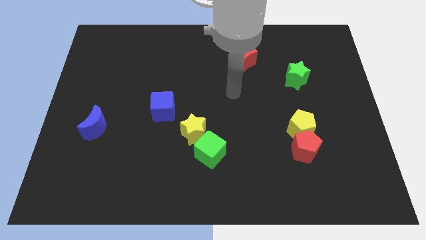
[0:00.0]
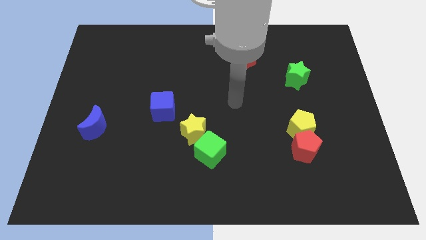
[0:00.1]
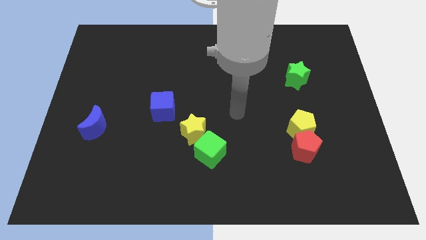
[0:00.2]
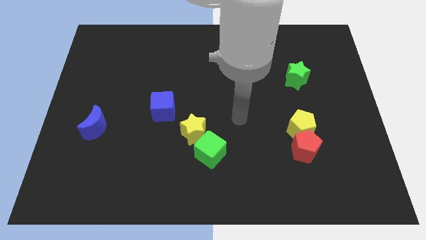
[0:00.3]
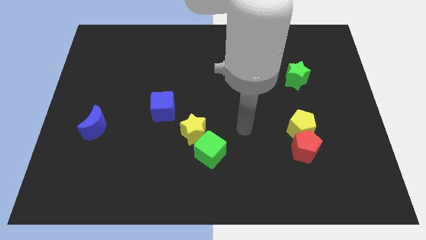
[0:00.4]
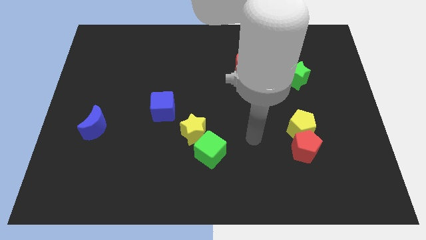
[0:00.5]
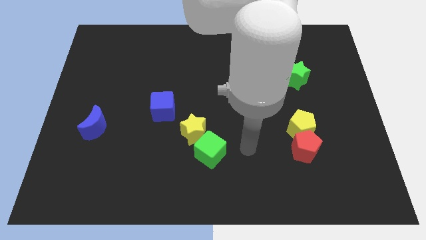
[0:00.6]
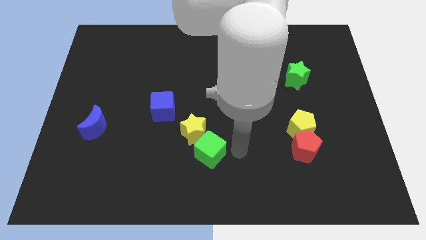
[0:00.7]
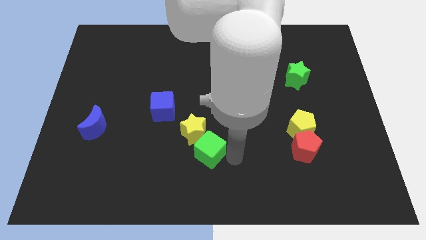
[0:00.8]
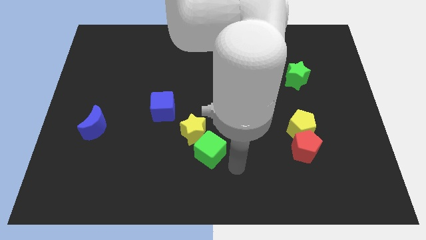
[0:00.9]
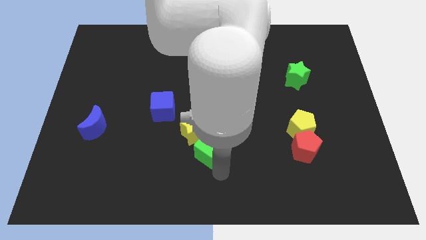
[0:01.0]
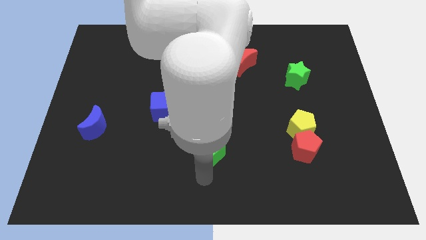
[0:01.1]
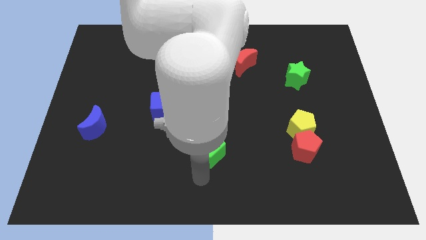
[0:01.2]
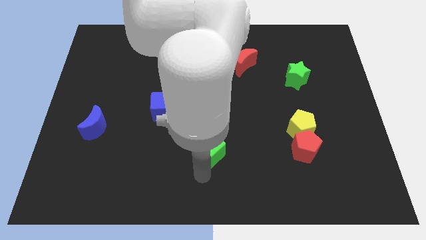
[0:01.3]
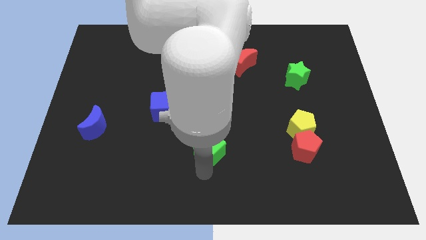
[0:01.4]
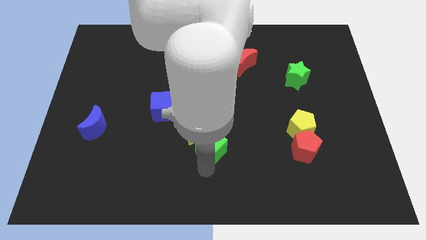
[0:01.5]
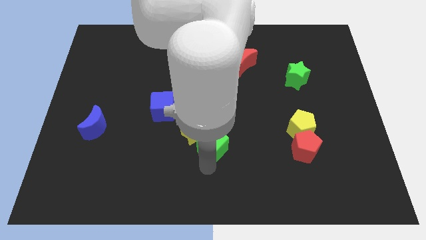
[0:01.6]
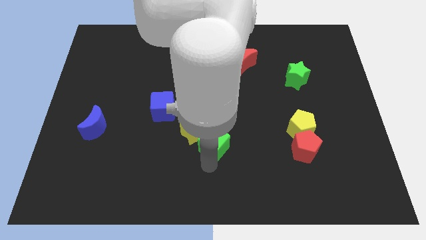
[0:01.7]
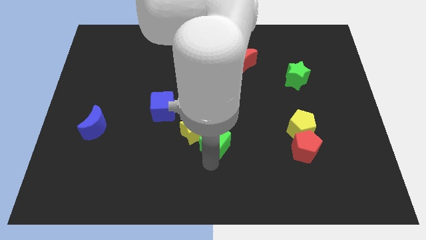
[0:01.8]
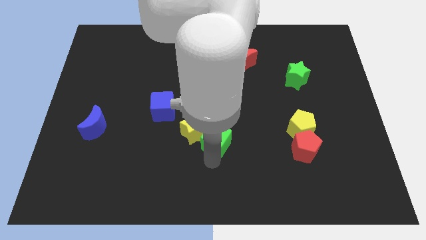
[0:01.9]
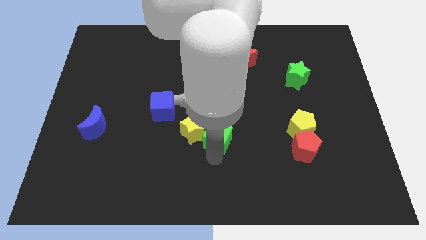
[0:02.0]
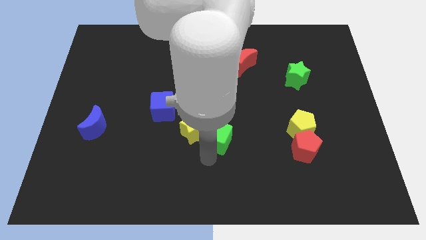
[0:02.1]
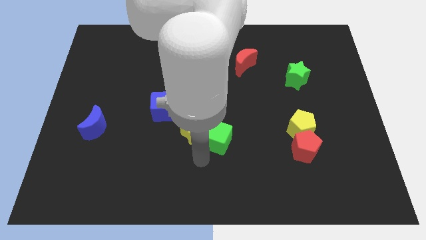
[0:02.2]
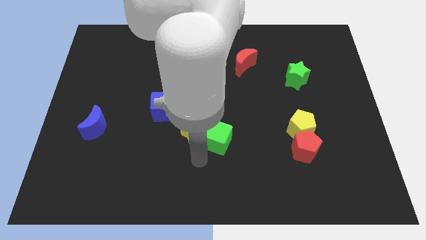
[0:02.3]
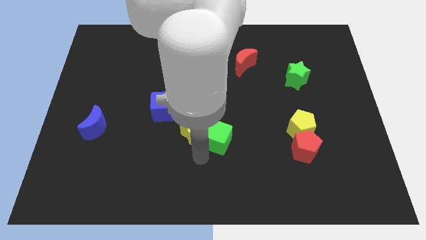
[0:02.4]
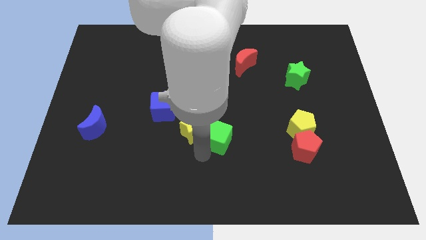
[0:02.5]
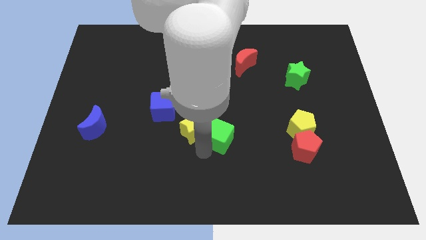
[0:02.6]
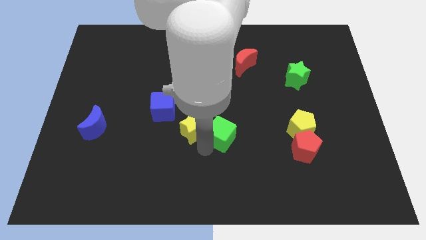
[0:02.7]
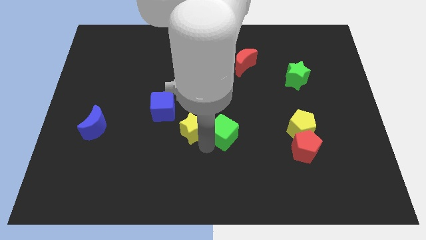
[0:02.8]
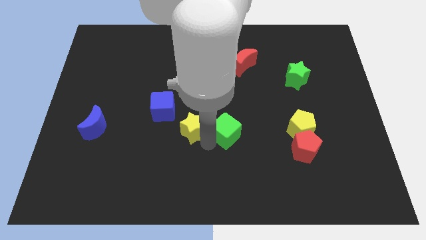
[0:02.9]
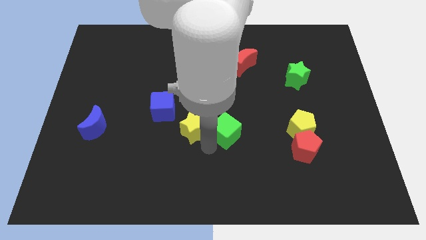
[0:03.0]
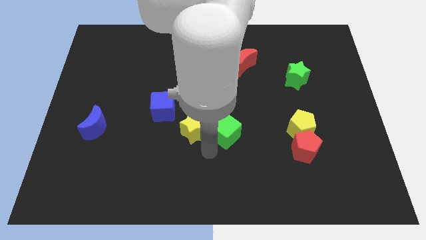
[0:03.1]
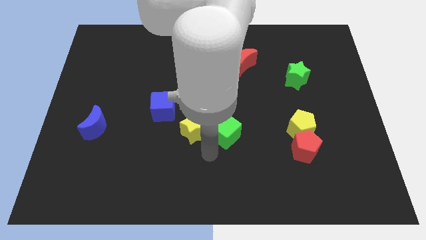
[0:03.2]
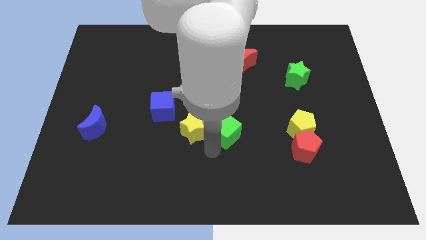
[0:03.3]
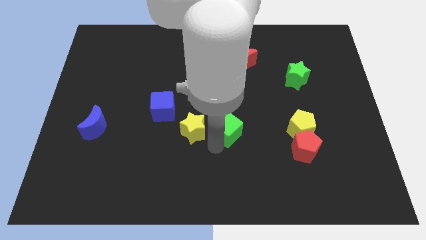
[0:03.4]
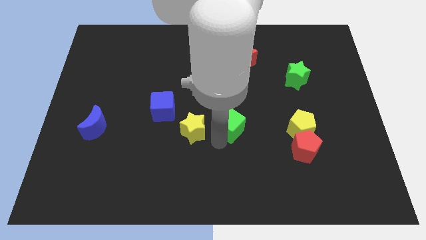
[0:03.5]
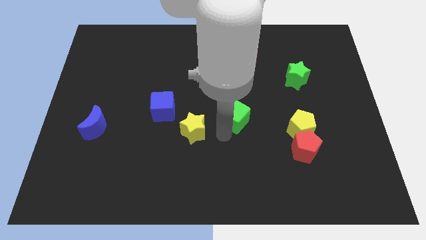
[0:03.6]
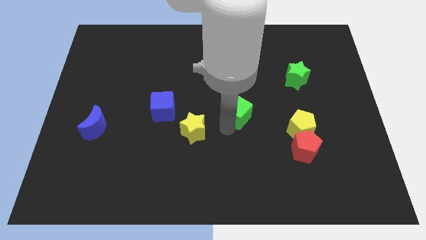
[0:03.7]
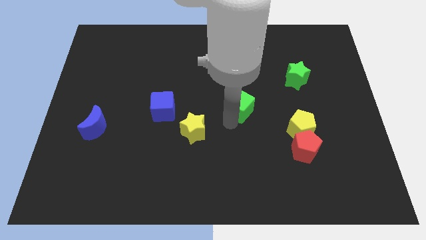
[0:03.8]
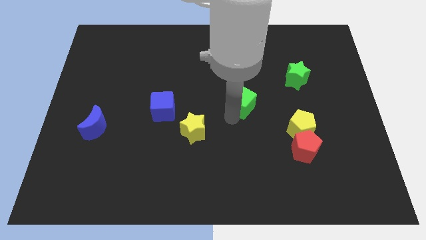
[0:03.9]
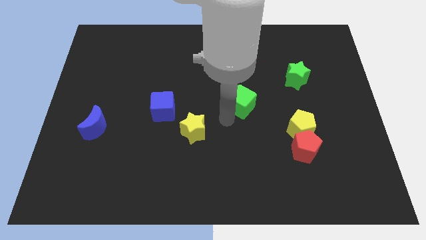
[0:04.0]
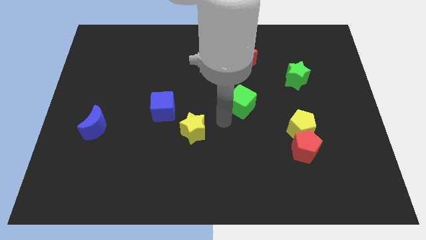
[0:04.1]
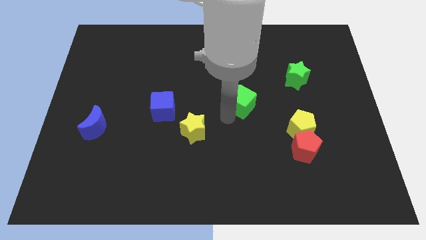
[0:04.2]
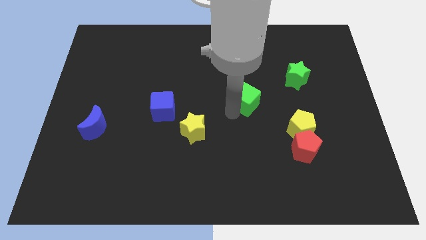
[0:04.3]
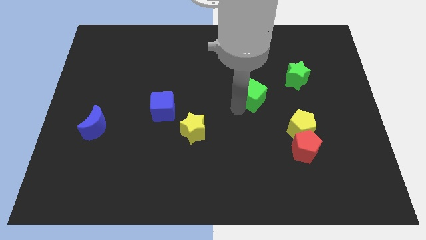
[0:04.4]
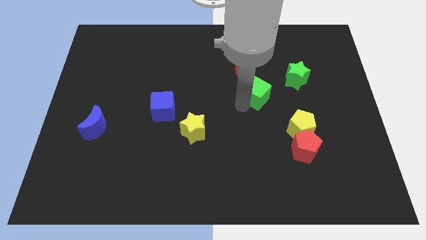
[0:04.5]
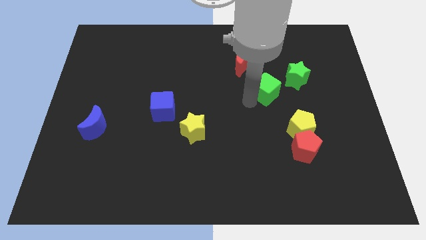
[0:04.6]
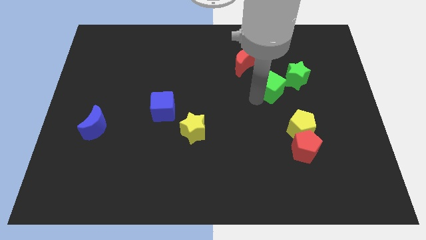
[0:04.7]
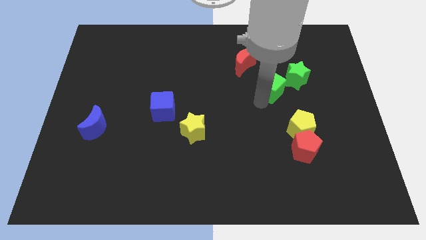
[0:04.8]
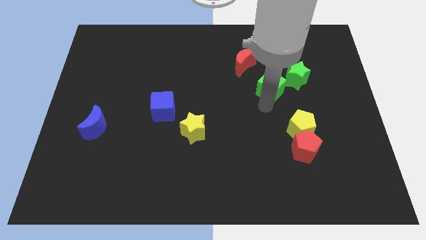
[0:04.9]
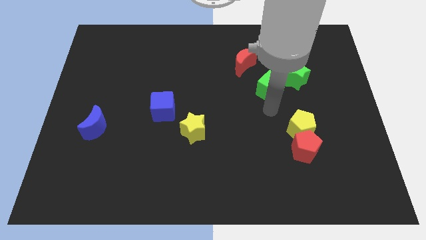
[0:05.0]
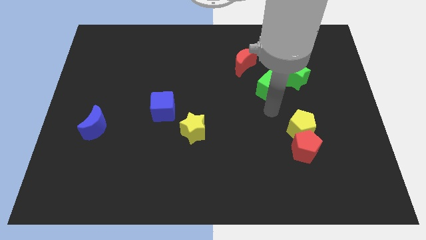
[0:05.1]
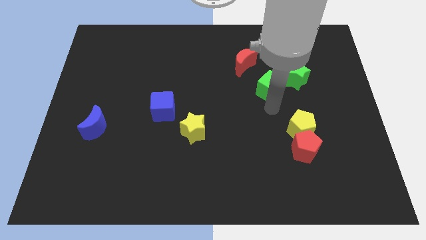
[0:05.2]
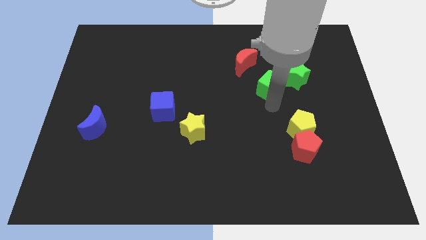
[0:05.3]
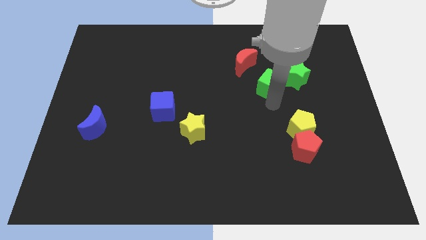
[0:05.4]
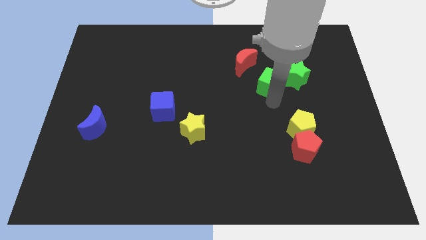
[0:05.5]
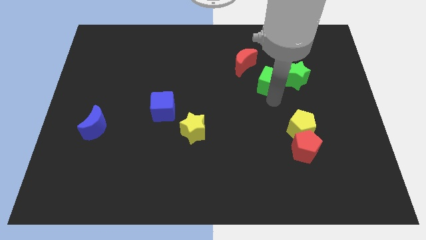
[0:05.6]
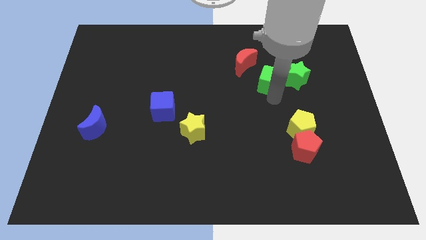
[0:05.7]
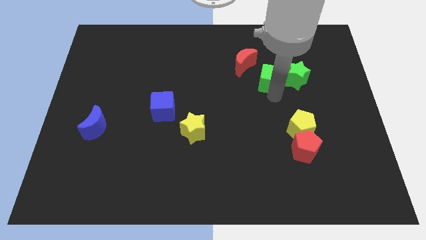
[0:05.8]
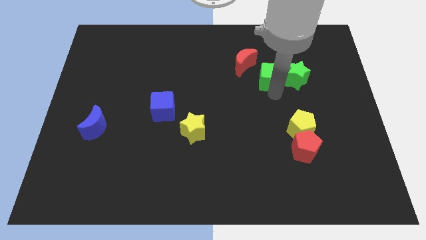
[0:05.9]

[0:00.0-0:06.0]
move the green cube to the top left of the green star

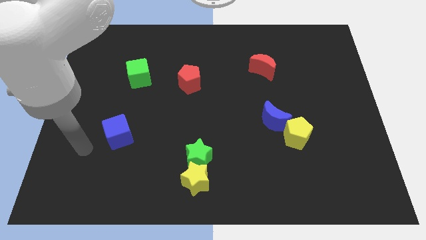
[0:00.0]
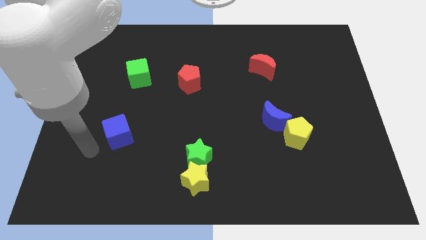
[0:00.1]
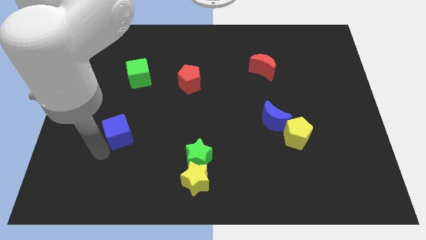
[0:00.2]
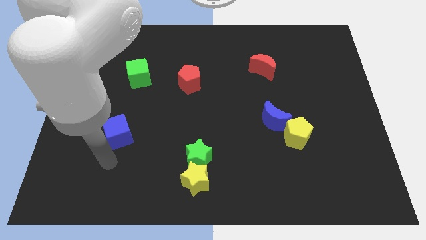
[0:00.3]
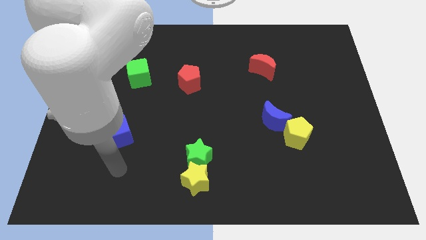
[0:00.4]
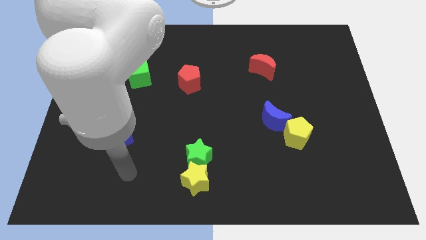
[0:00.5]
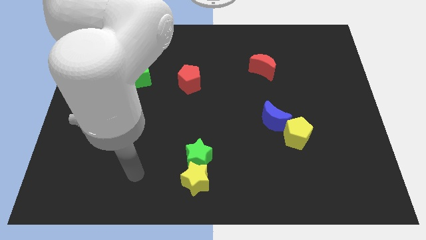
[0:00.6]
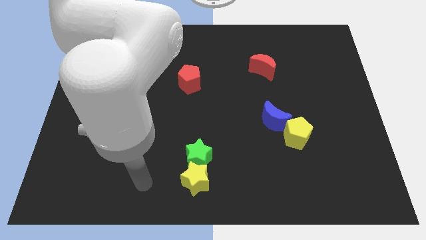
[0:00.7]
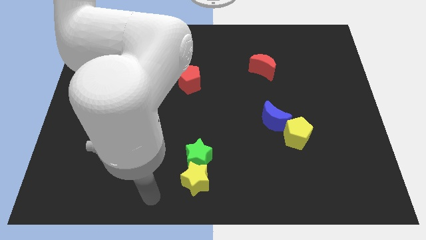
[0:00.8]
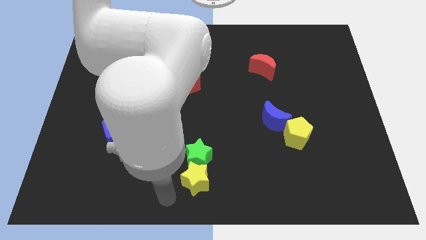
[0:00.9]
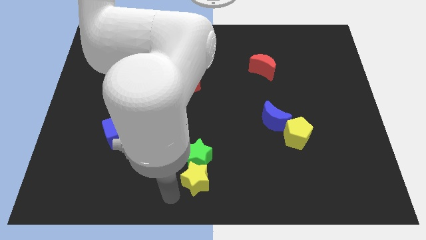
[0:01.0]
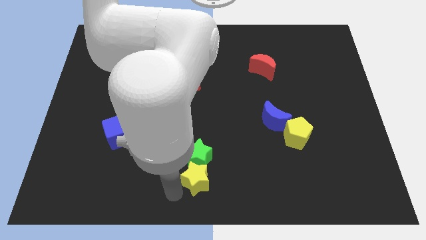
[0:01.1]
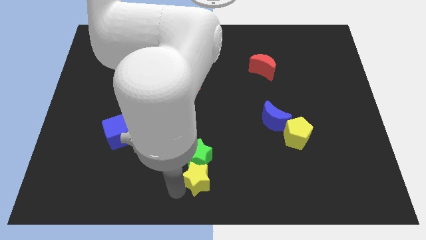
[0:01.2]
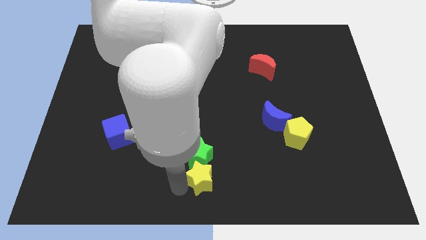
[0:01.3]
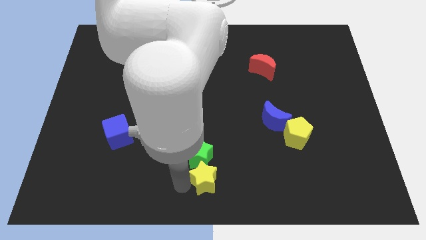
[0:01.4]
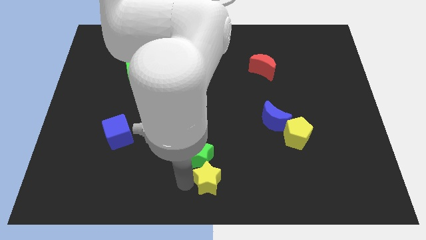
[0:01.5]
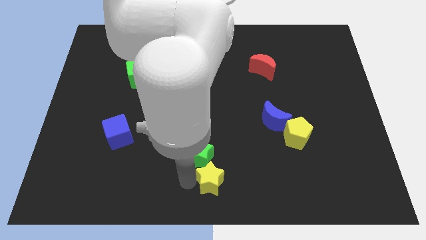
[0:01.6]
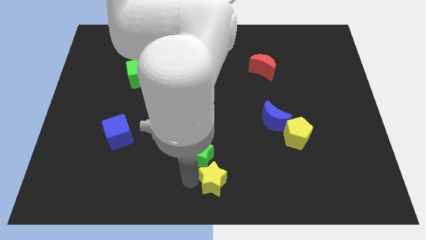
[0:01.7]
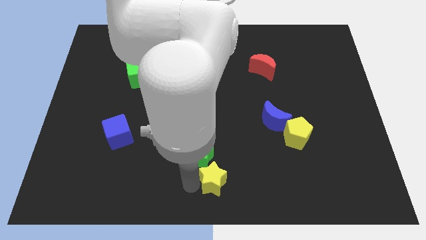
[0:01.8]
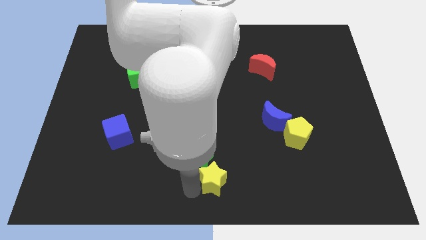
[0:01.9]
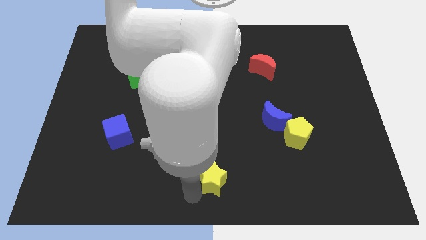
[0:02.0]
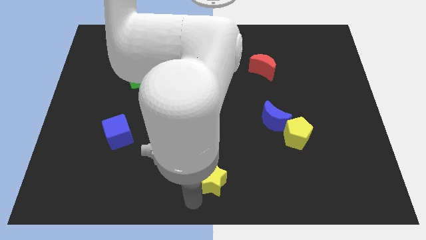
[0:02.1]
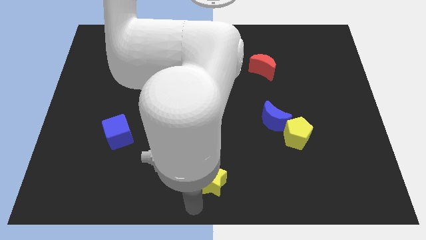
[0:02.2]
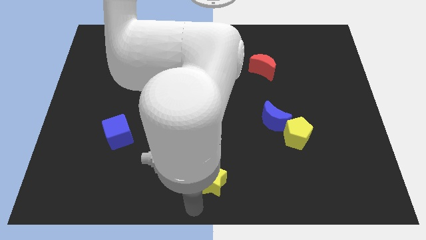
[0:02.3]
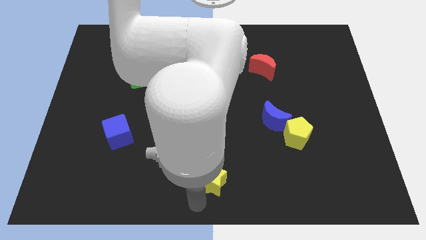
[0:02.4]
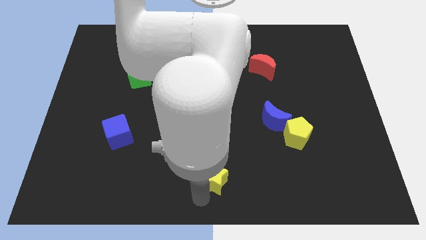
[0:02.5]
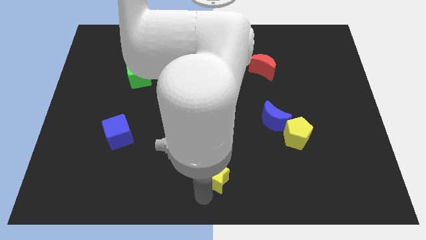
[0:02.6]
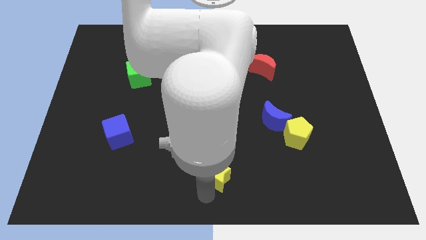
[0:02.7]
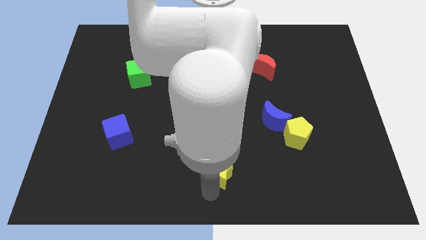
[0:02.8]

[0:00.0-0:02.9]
put the yellow star to the right side of the green star
